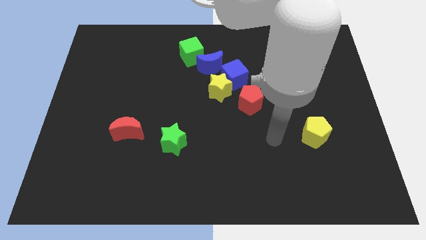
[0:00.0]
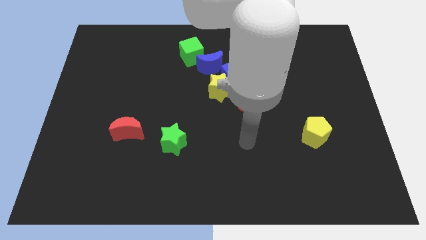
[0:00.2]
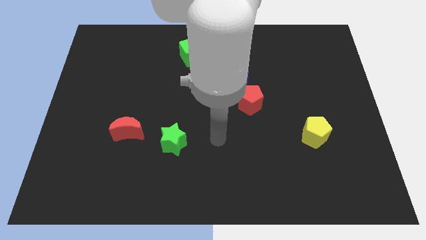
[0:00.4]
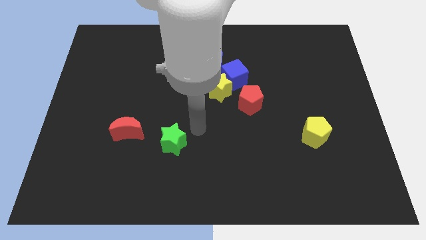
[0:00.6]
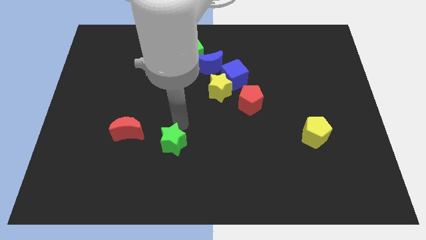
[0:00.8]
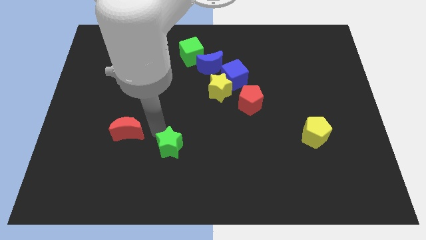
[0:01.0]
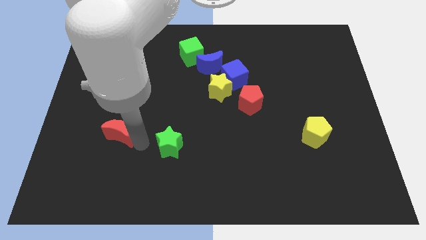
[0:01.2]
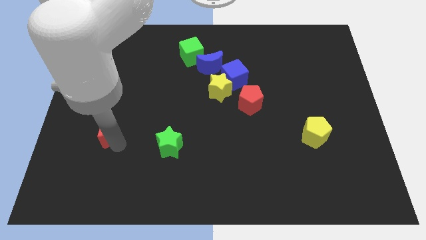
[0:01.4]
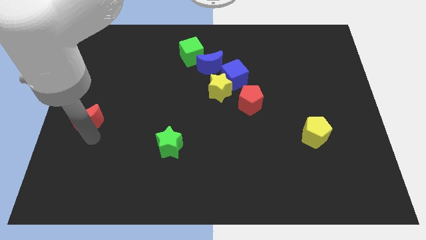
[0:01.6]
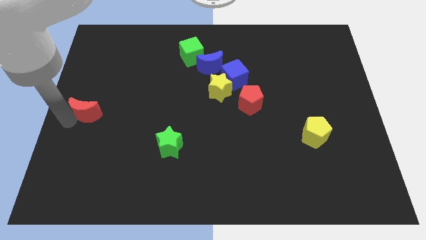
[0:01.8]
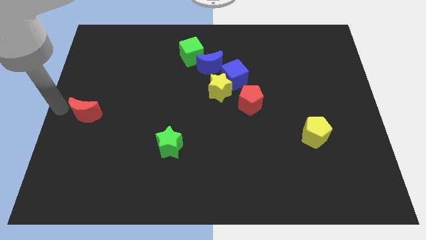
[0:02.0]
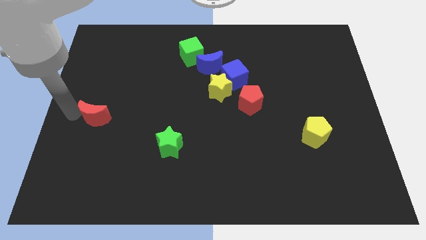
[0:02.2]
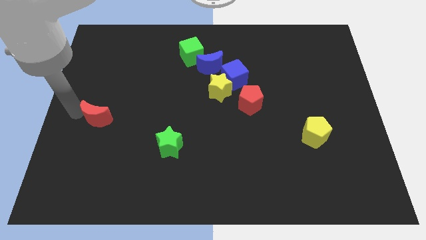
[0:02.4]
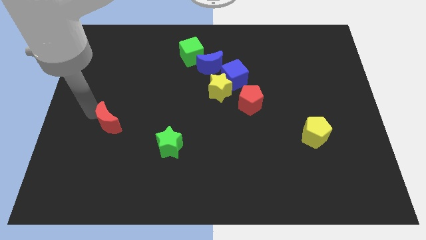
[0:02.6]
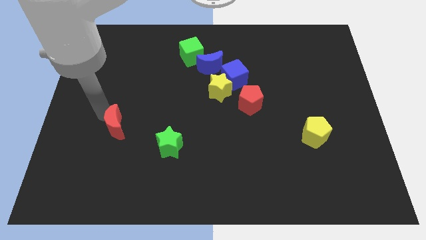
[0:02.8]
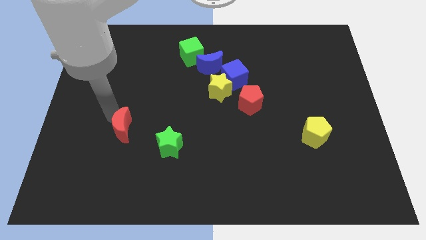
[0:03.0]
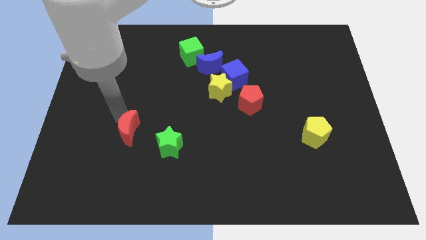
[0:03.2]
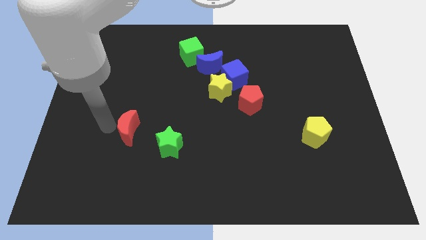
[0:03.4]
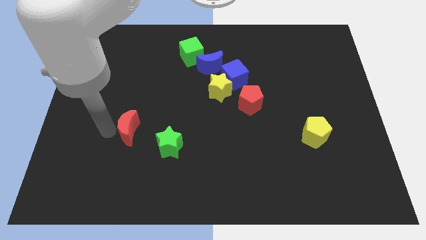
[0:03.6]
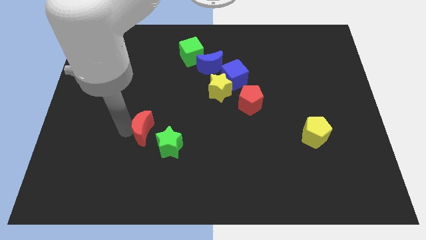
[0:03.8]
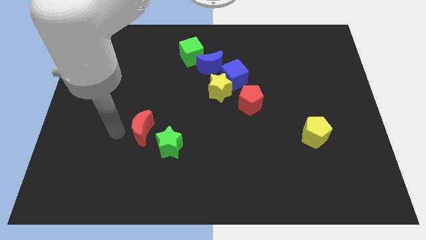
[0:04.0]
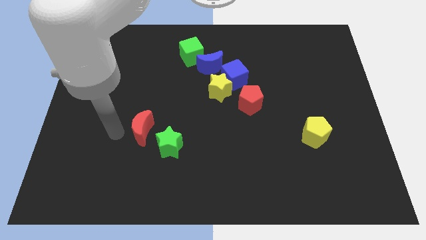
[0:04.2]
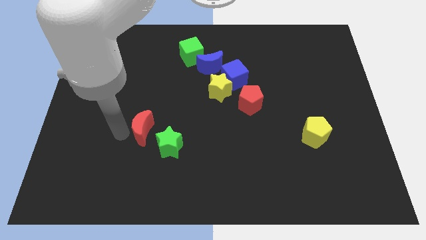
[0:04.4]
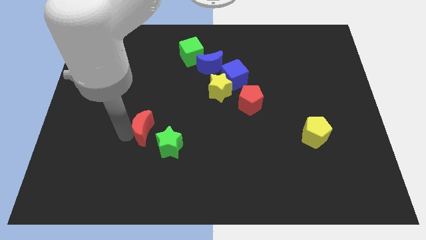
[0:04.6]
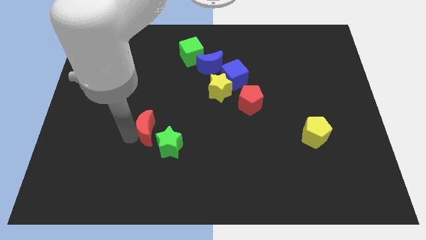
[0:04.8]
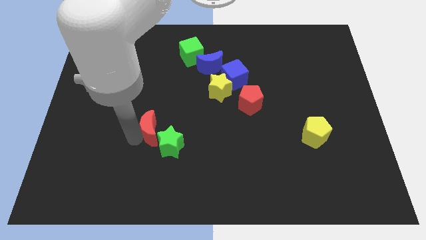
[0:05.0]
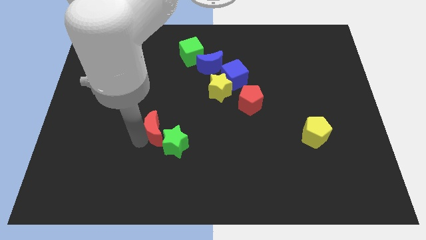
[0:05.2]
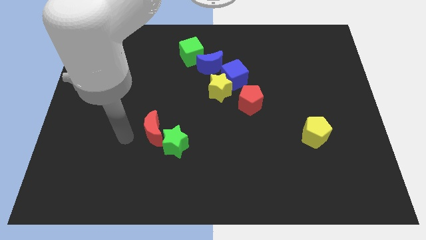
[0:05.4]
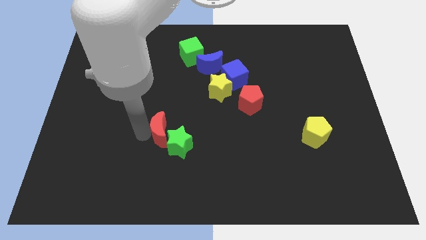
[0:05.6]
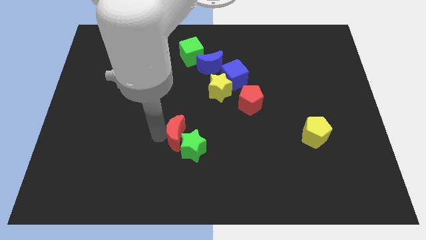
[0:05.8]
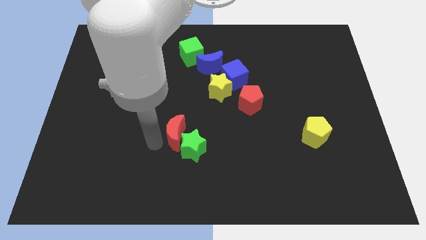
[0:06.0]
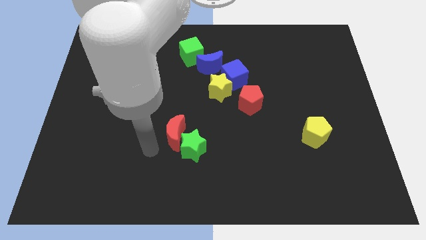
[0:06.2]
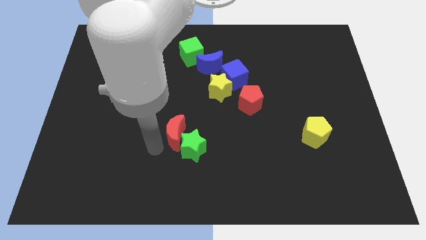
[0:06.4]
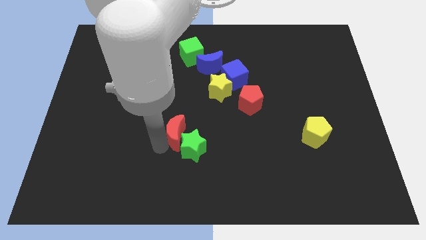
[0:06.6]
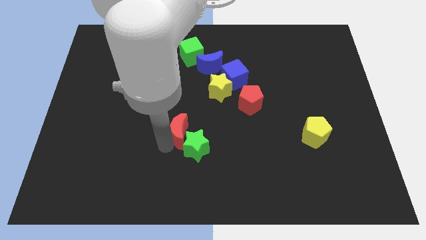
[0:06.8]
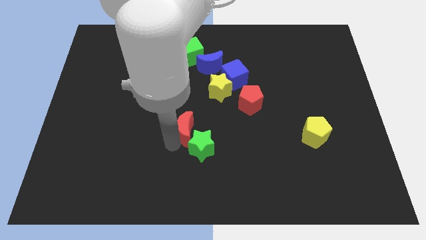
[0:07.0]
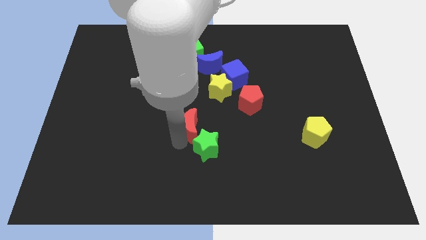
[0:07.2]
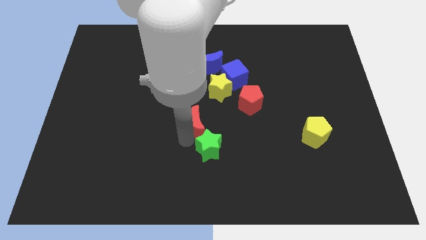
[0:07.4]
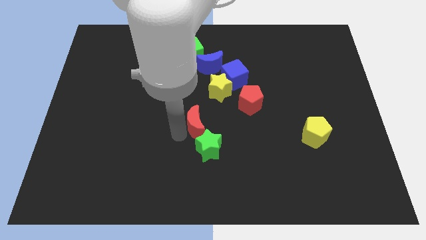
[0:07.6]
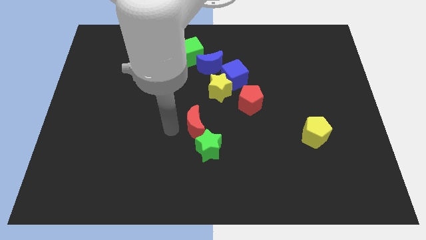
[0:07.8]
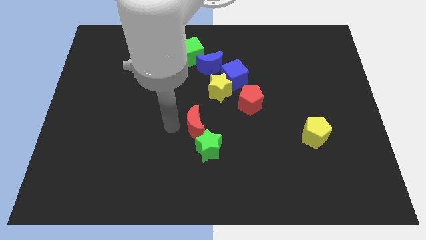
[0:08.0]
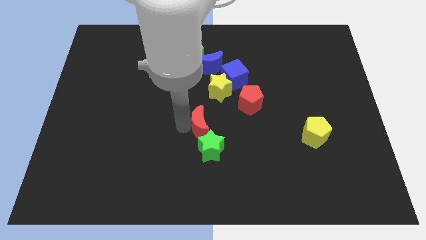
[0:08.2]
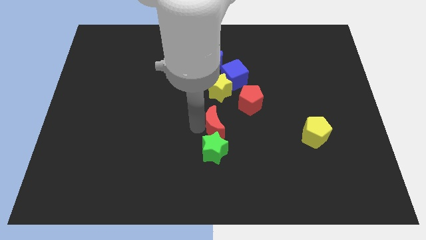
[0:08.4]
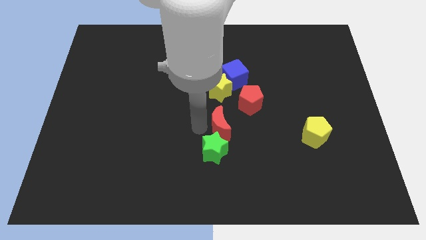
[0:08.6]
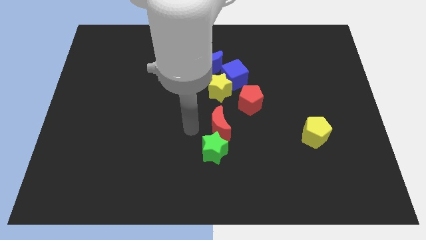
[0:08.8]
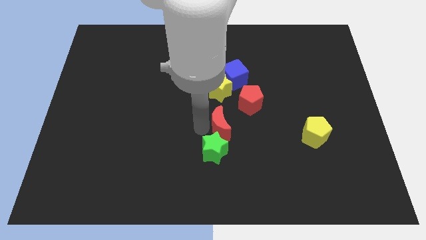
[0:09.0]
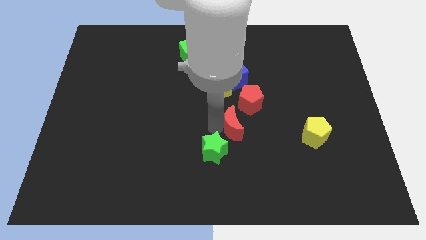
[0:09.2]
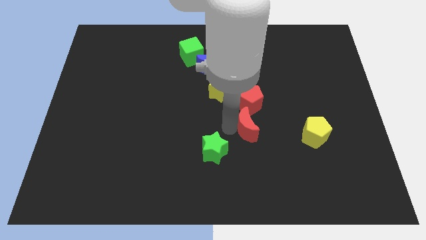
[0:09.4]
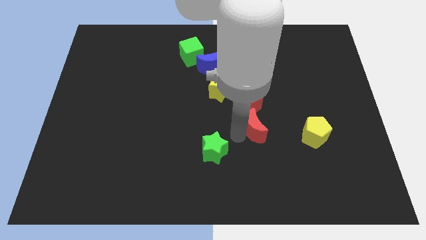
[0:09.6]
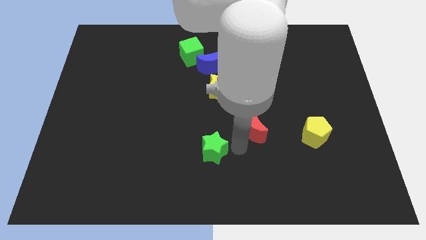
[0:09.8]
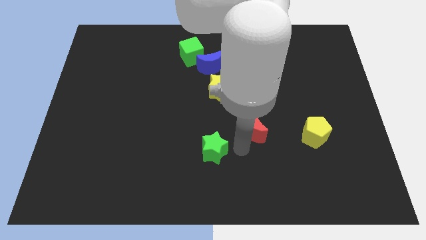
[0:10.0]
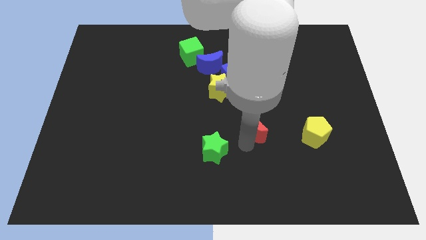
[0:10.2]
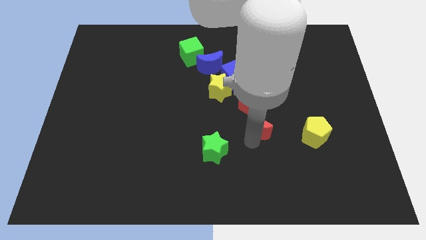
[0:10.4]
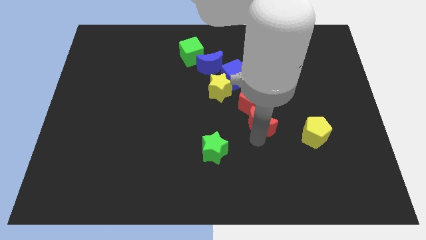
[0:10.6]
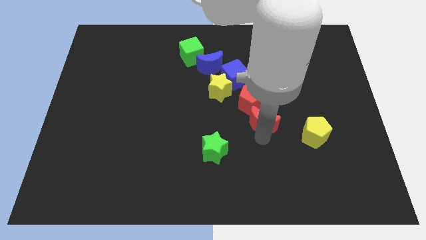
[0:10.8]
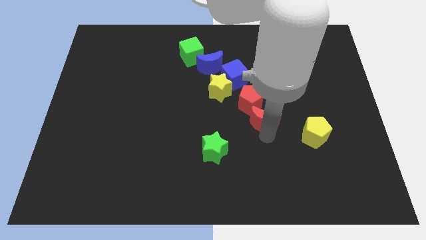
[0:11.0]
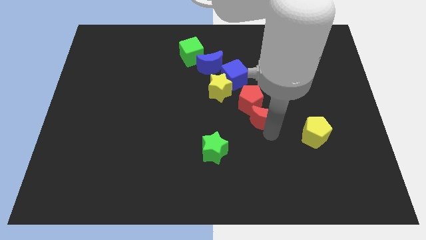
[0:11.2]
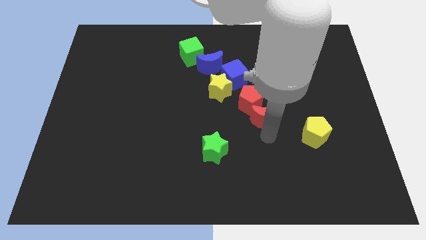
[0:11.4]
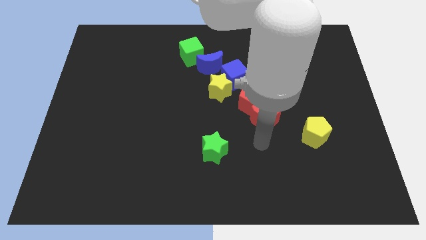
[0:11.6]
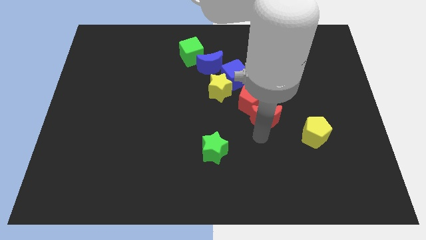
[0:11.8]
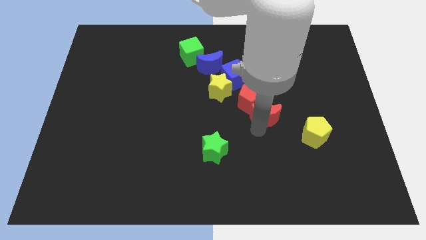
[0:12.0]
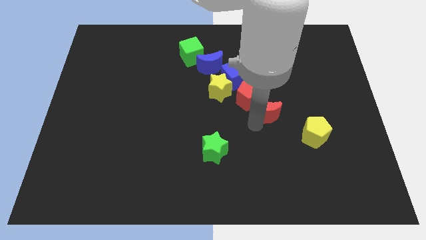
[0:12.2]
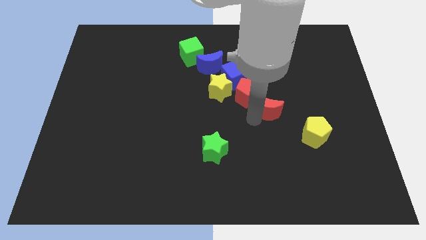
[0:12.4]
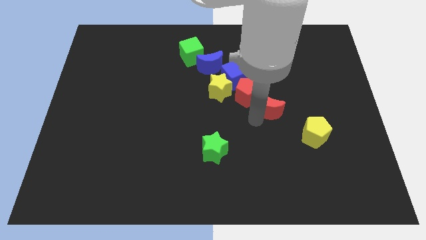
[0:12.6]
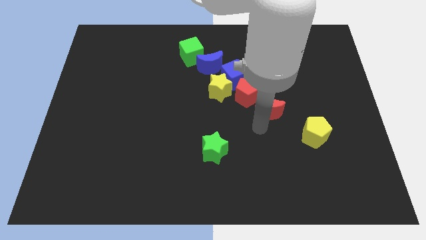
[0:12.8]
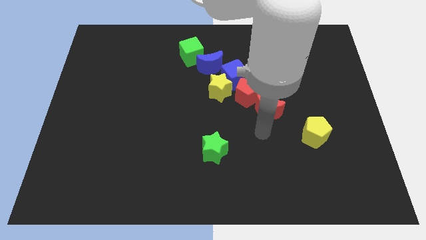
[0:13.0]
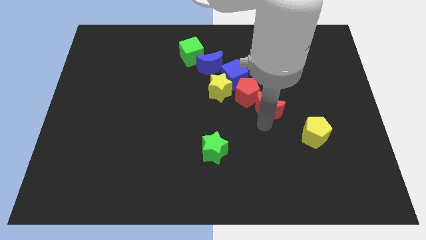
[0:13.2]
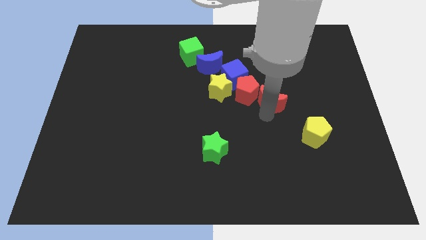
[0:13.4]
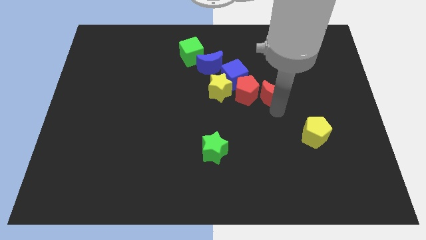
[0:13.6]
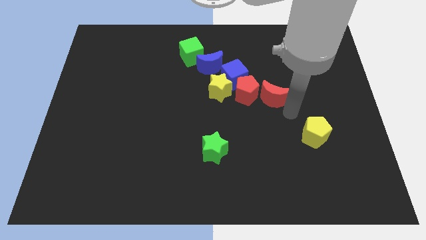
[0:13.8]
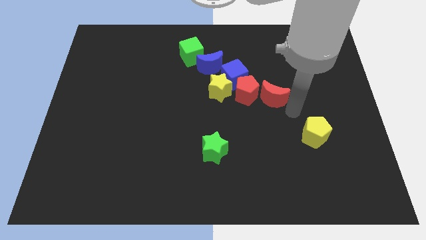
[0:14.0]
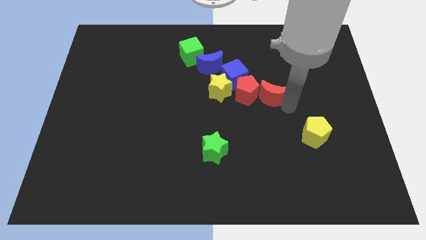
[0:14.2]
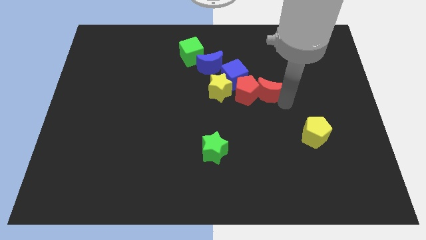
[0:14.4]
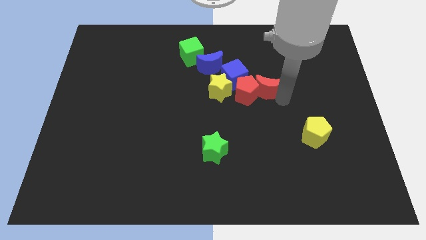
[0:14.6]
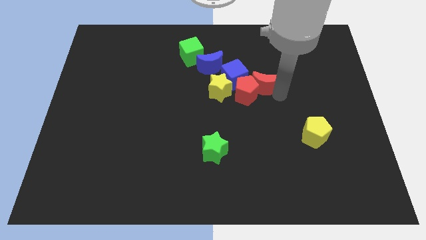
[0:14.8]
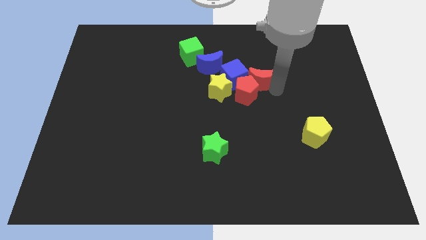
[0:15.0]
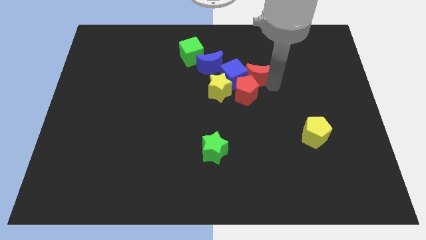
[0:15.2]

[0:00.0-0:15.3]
move the red moon to the blue cube

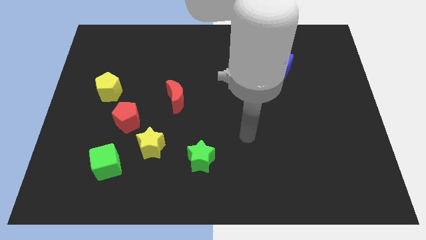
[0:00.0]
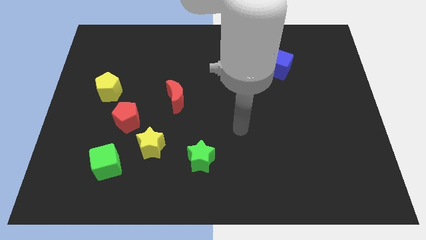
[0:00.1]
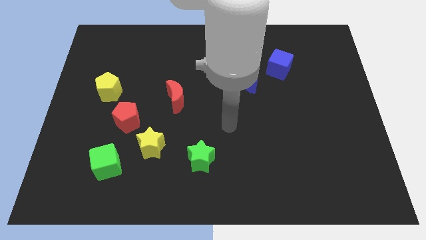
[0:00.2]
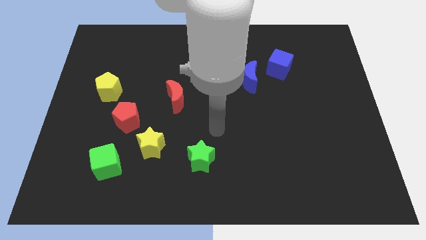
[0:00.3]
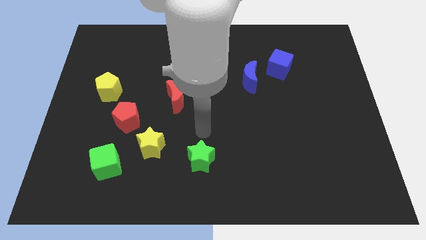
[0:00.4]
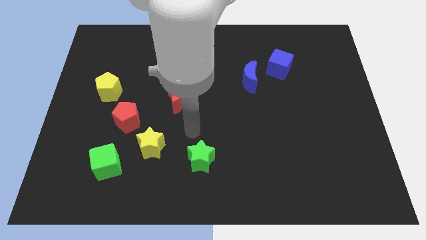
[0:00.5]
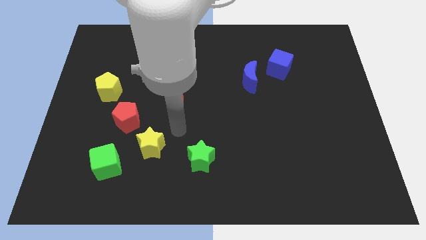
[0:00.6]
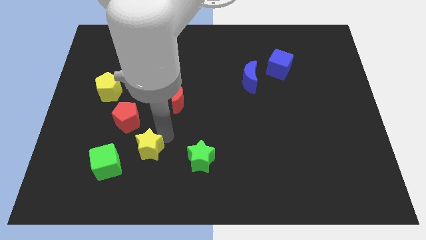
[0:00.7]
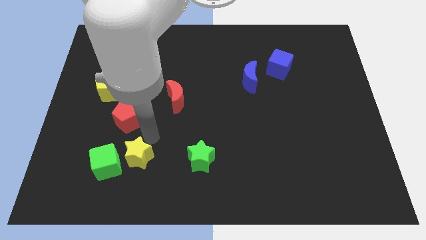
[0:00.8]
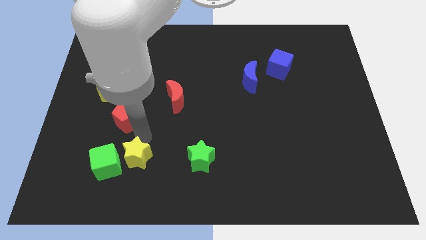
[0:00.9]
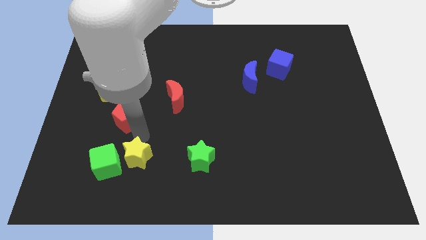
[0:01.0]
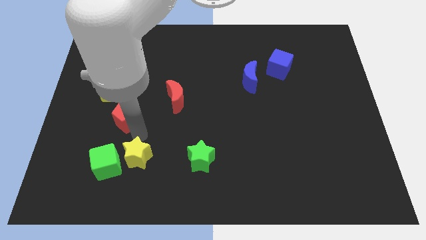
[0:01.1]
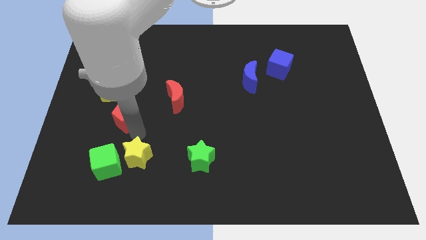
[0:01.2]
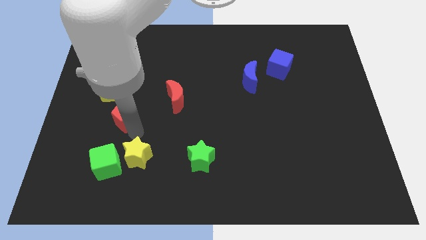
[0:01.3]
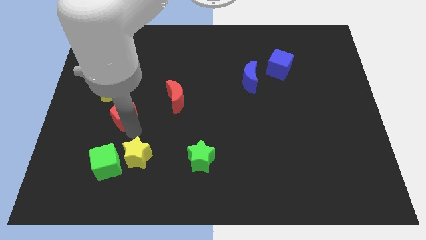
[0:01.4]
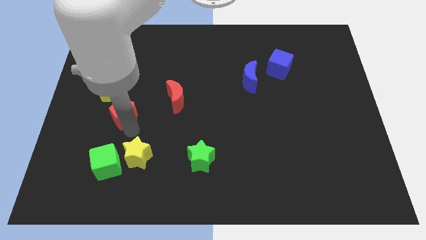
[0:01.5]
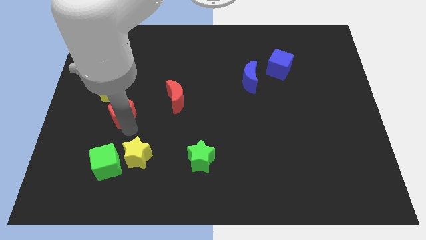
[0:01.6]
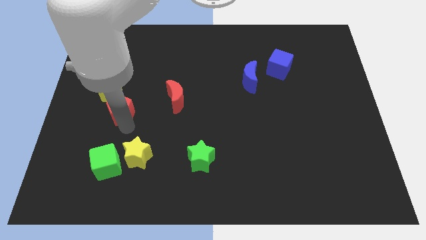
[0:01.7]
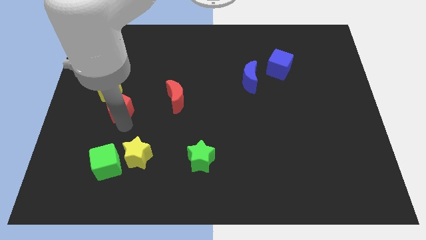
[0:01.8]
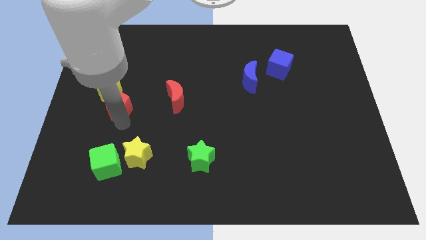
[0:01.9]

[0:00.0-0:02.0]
slide the red pentagon next to the yellow pentagon
